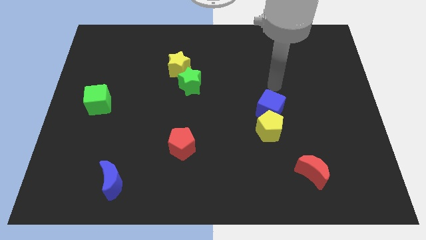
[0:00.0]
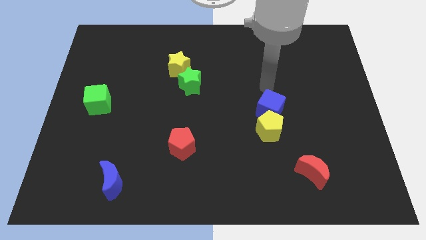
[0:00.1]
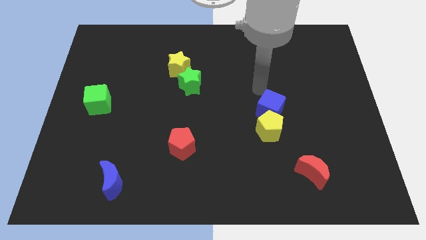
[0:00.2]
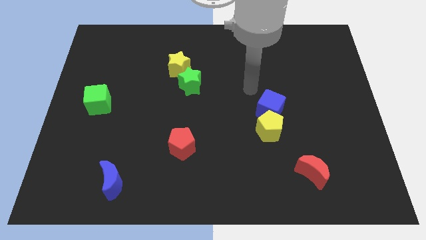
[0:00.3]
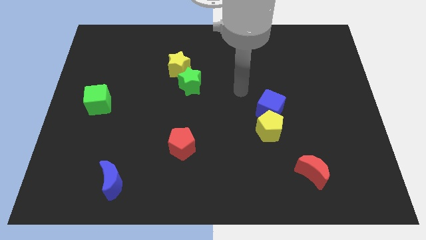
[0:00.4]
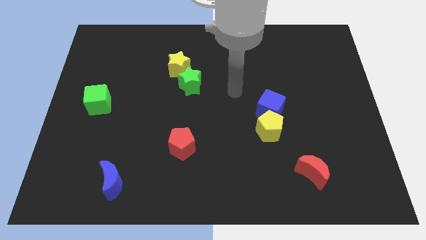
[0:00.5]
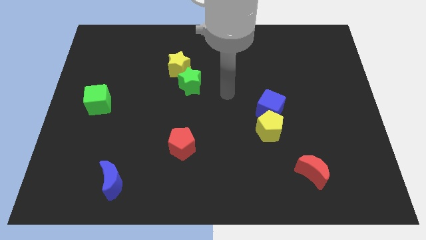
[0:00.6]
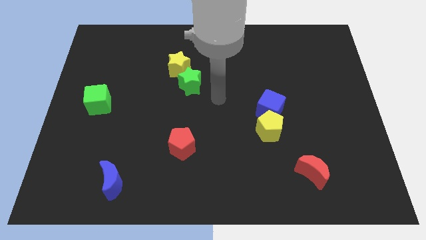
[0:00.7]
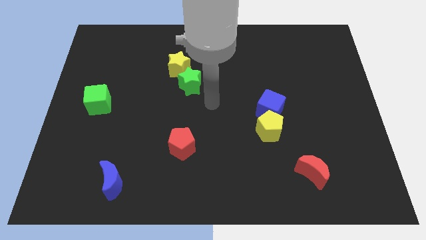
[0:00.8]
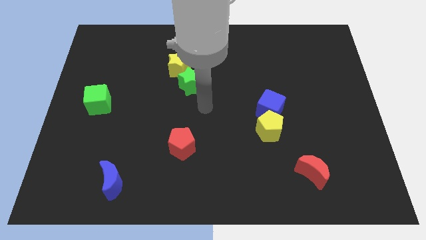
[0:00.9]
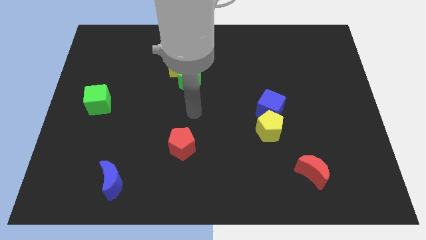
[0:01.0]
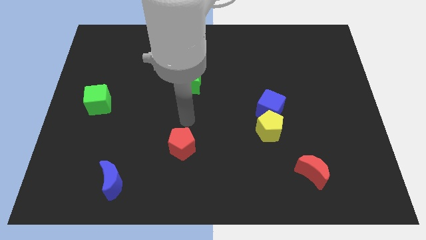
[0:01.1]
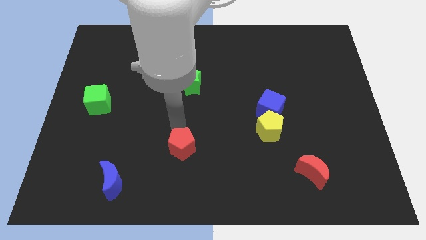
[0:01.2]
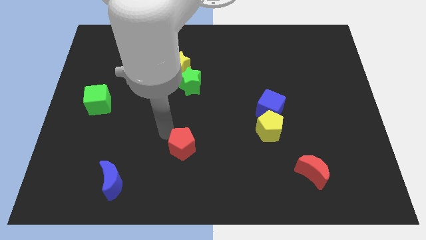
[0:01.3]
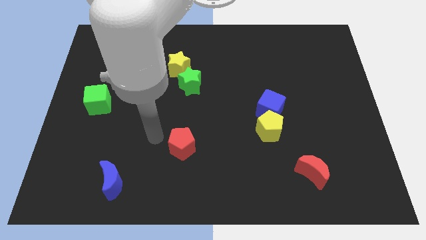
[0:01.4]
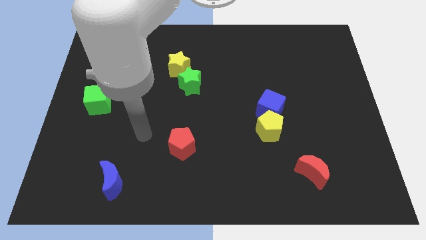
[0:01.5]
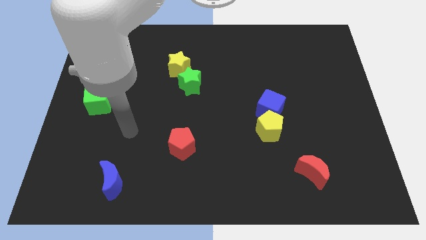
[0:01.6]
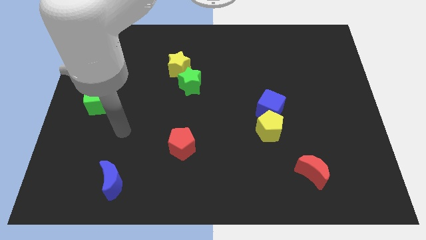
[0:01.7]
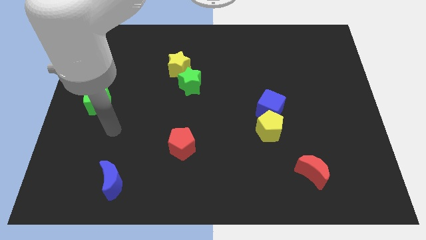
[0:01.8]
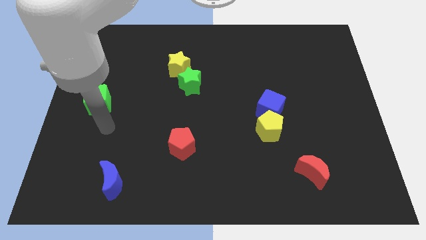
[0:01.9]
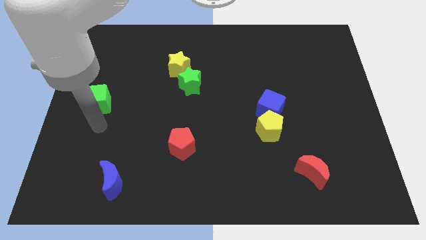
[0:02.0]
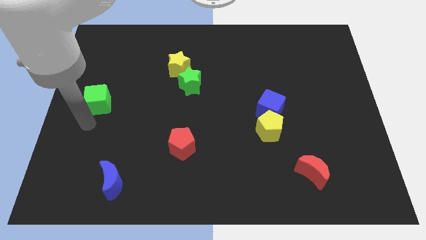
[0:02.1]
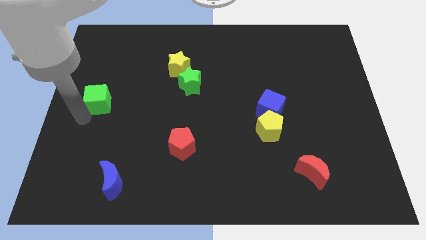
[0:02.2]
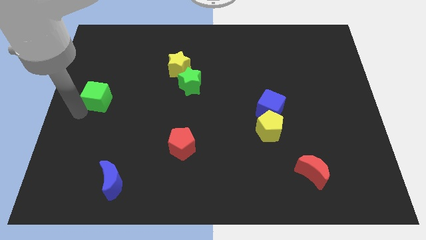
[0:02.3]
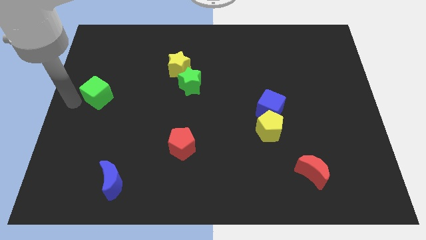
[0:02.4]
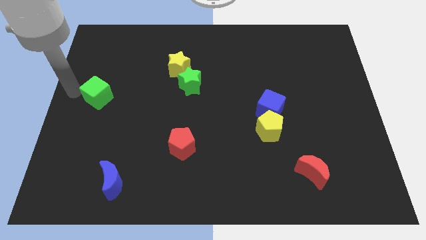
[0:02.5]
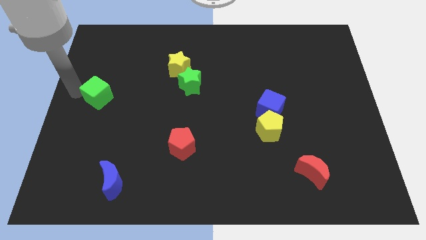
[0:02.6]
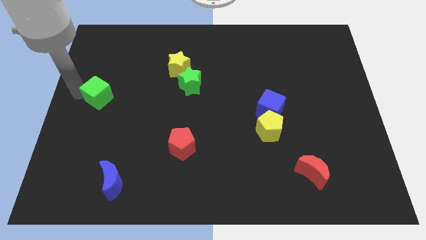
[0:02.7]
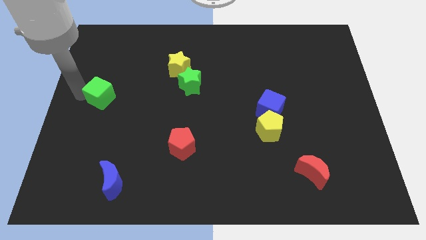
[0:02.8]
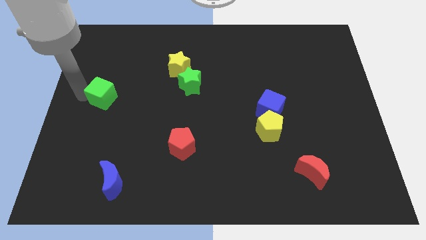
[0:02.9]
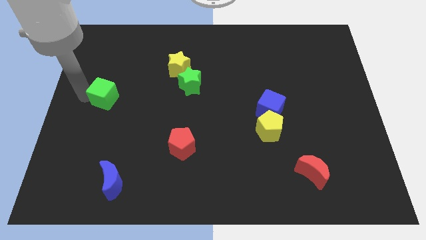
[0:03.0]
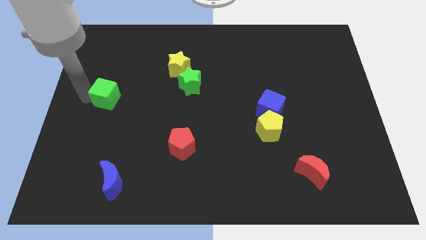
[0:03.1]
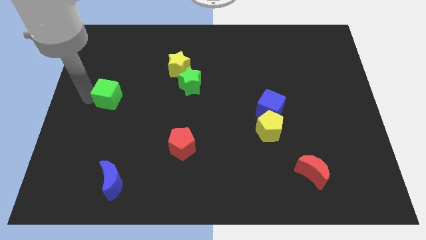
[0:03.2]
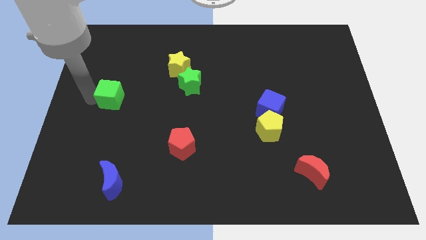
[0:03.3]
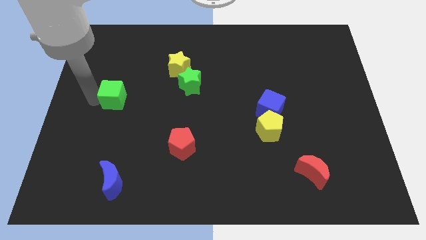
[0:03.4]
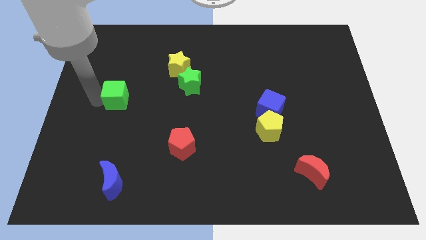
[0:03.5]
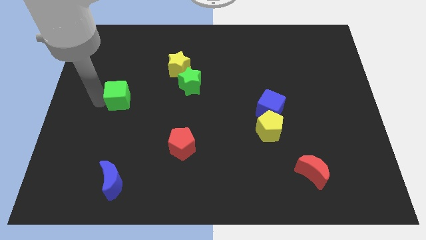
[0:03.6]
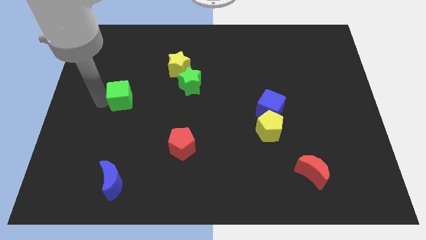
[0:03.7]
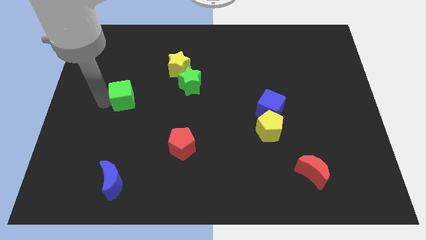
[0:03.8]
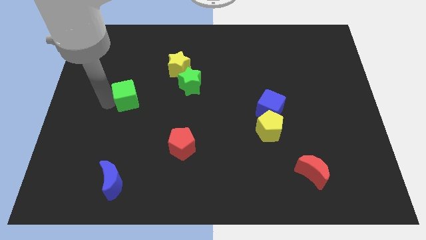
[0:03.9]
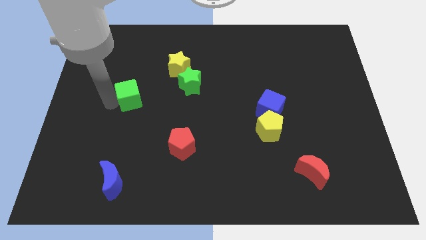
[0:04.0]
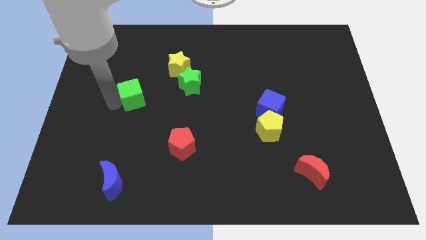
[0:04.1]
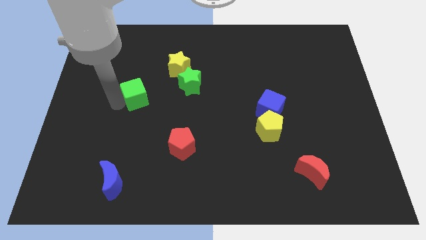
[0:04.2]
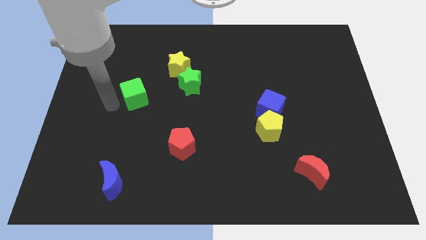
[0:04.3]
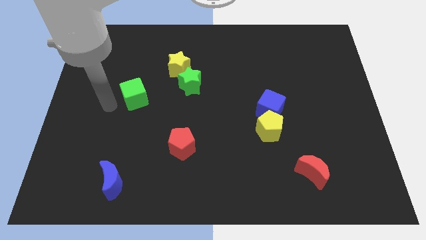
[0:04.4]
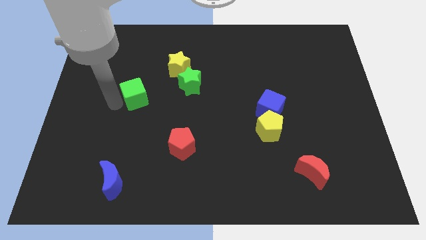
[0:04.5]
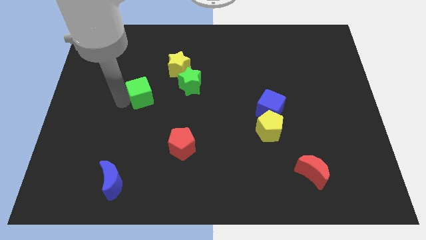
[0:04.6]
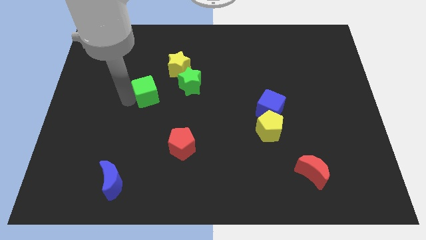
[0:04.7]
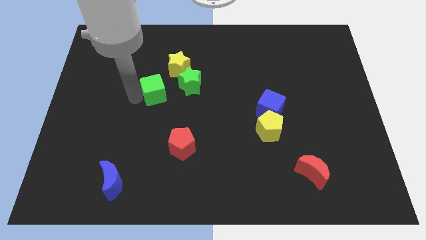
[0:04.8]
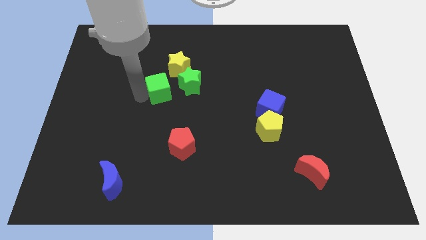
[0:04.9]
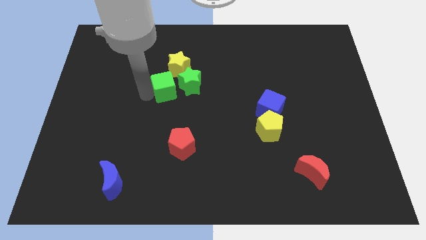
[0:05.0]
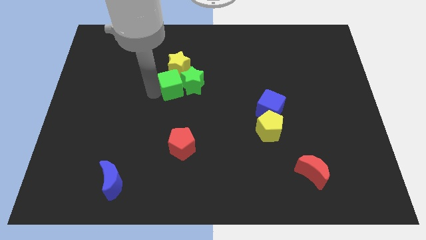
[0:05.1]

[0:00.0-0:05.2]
move the green cube towards the green star

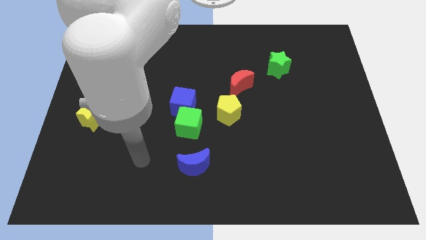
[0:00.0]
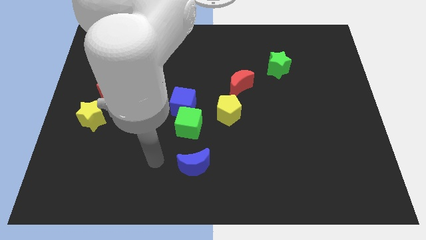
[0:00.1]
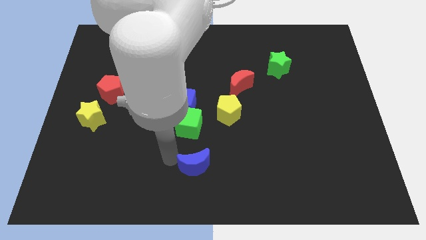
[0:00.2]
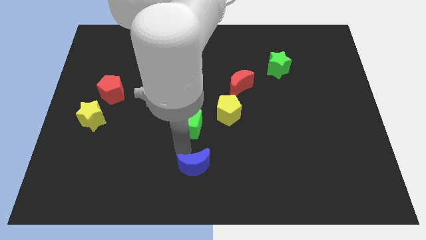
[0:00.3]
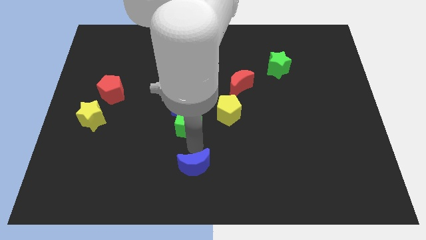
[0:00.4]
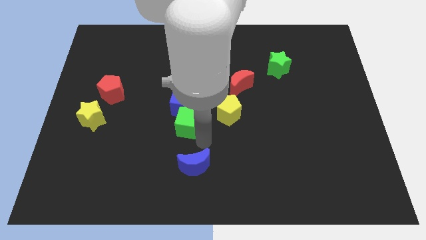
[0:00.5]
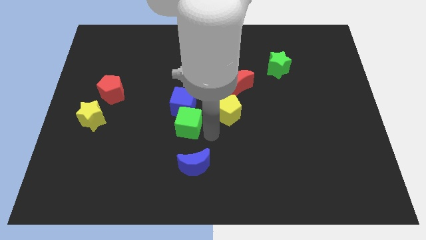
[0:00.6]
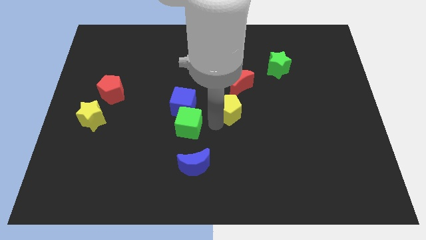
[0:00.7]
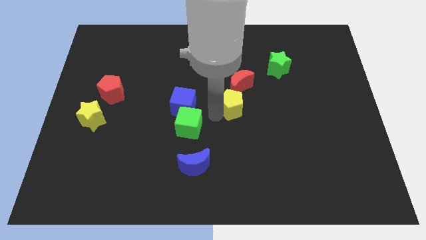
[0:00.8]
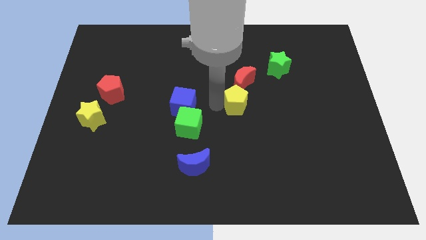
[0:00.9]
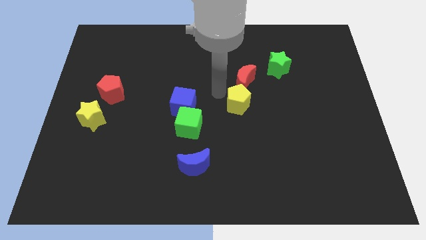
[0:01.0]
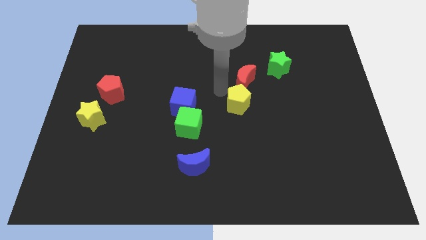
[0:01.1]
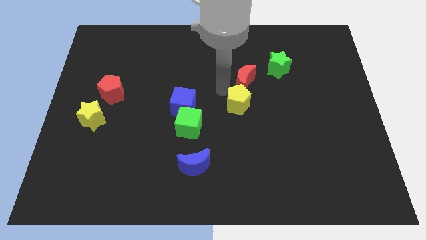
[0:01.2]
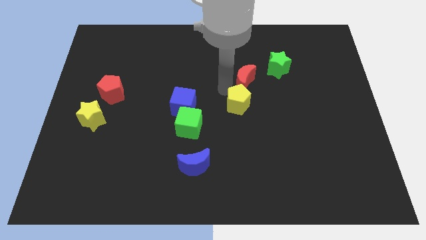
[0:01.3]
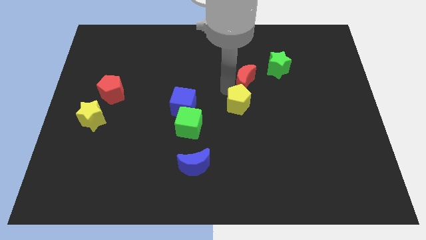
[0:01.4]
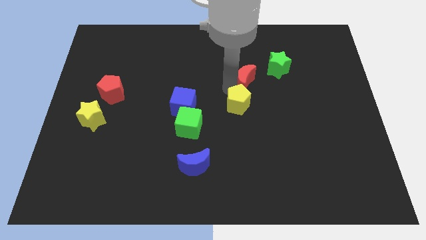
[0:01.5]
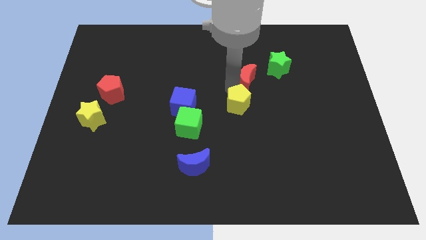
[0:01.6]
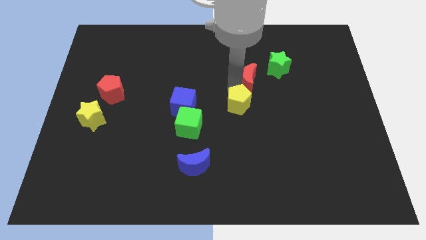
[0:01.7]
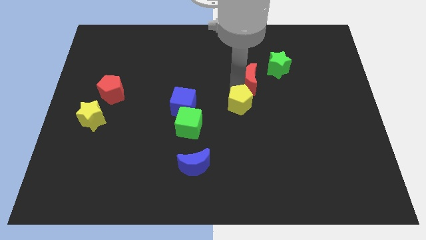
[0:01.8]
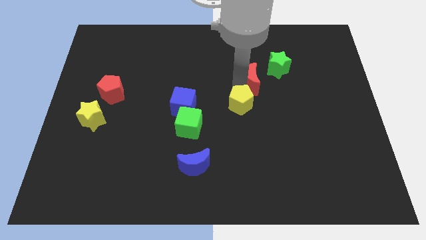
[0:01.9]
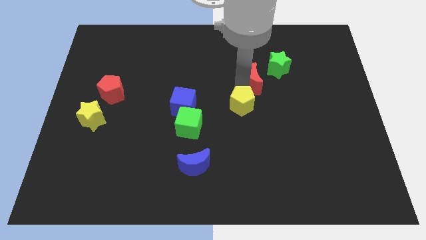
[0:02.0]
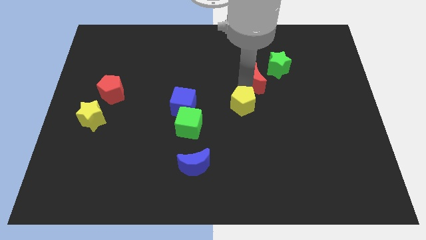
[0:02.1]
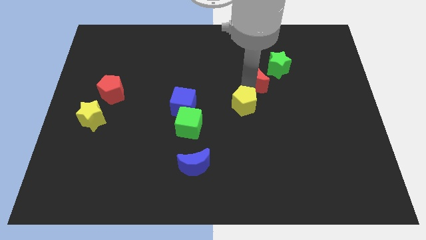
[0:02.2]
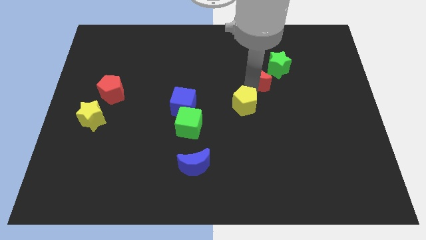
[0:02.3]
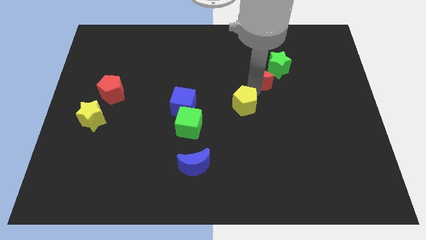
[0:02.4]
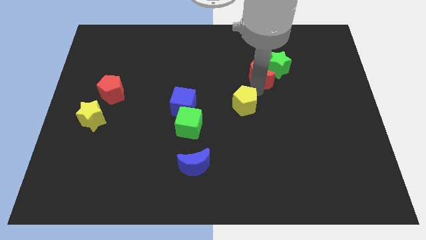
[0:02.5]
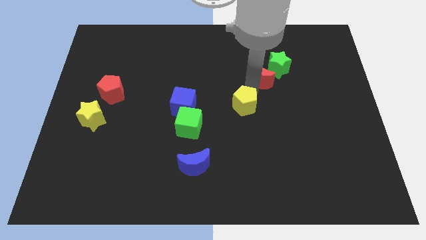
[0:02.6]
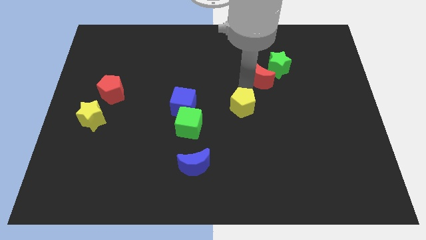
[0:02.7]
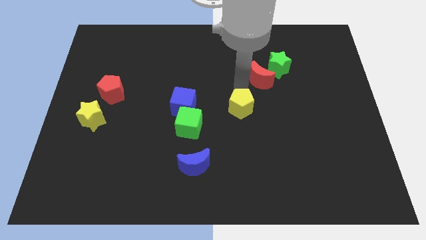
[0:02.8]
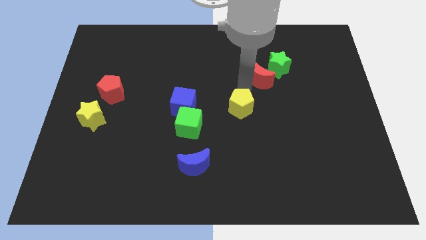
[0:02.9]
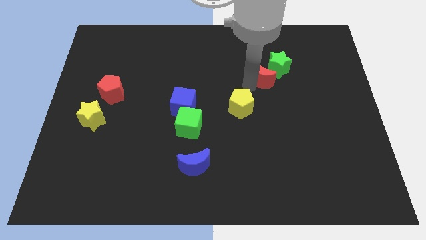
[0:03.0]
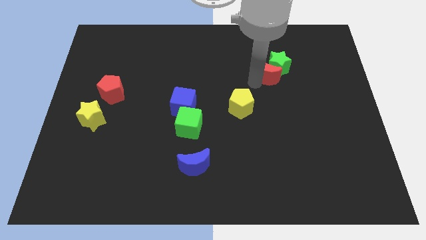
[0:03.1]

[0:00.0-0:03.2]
move the red moon next to the green star
